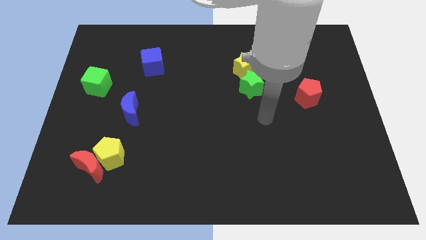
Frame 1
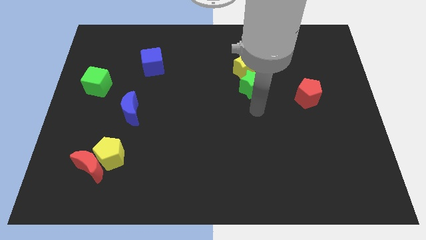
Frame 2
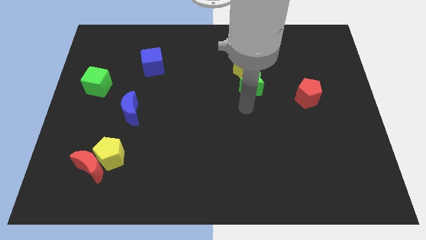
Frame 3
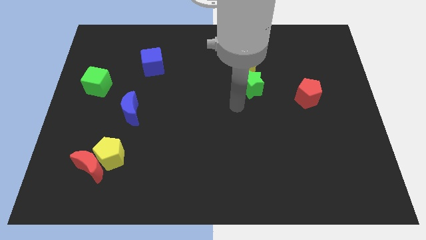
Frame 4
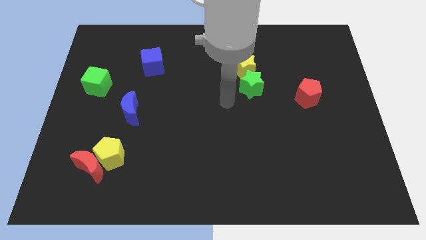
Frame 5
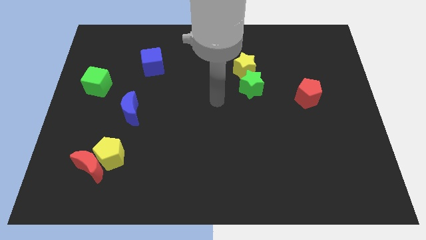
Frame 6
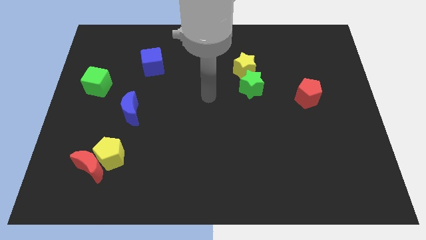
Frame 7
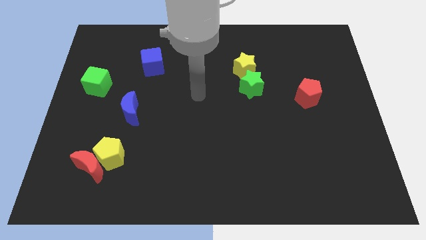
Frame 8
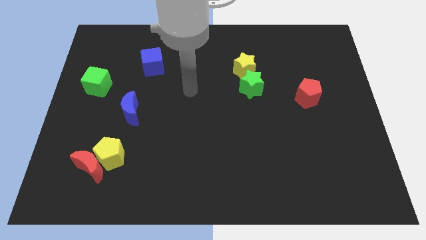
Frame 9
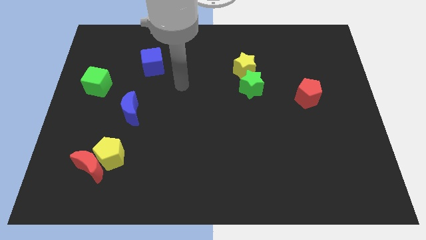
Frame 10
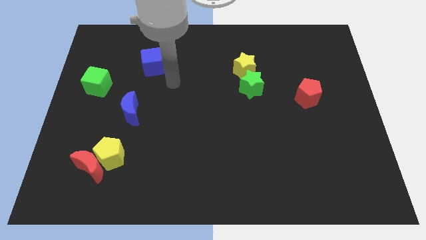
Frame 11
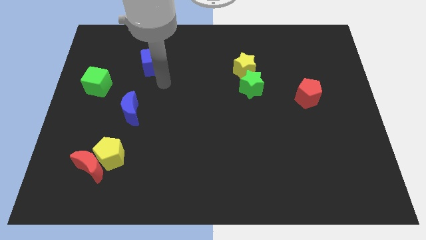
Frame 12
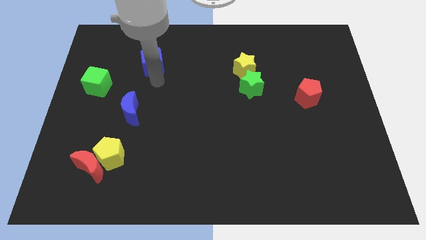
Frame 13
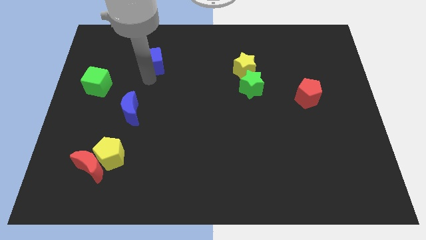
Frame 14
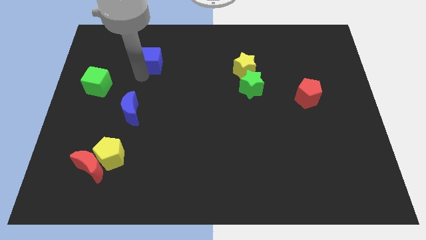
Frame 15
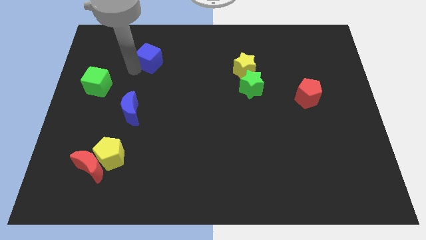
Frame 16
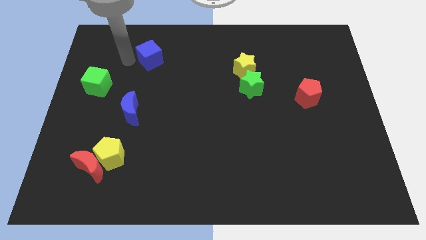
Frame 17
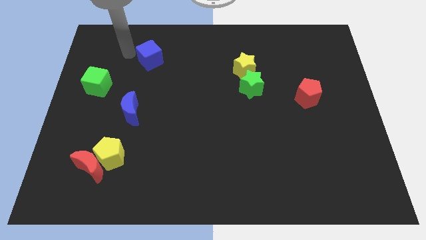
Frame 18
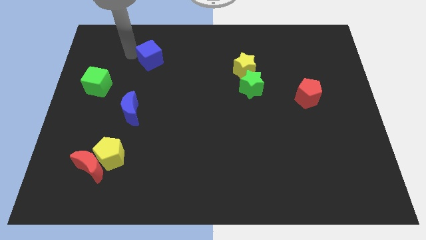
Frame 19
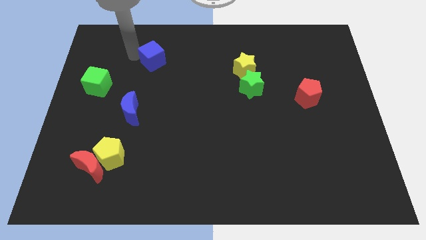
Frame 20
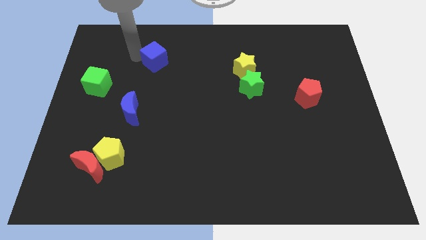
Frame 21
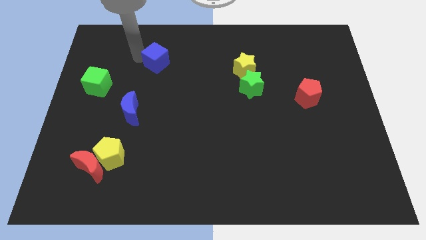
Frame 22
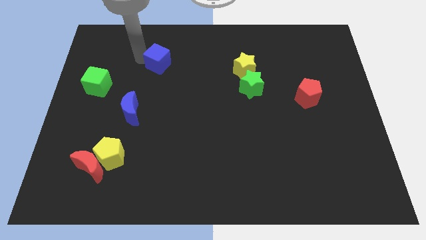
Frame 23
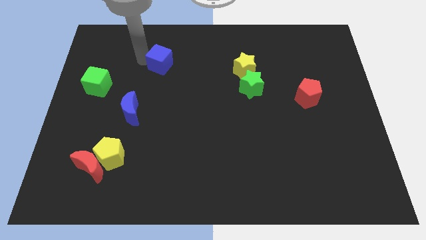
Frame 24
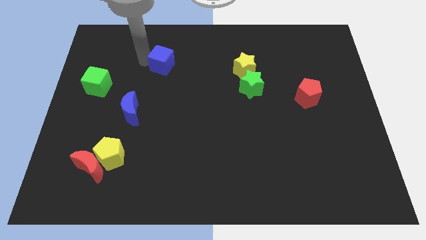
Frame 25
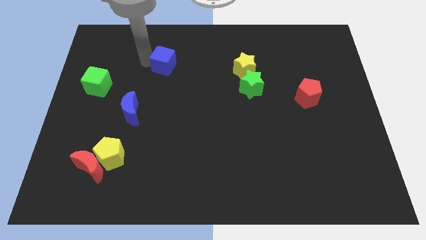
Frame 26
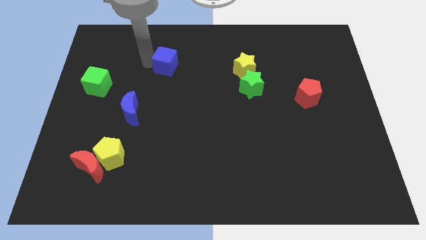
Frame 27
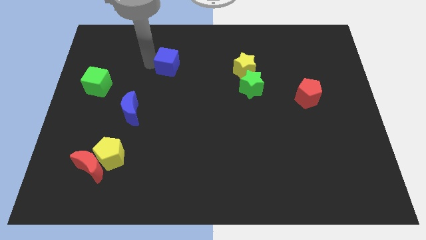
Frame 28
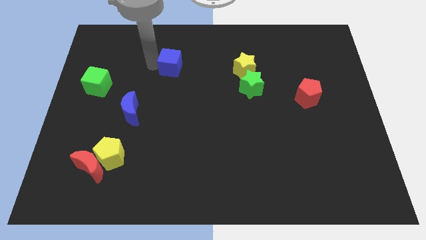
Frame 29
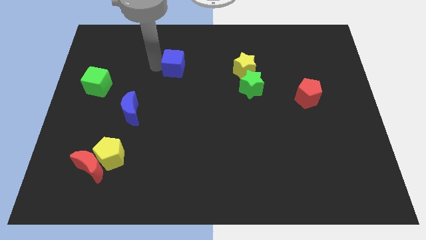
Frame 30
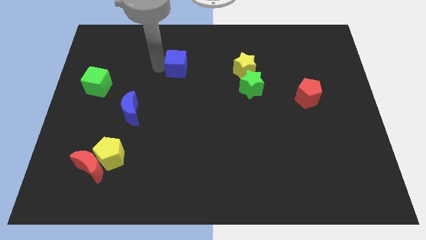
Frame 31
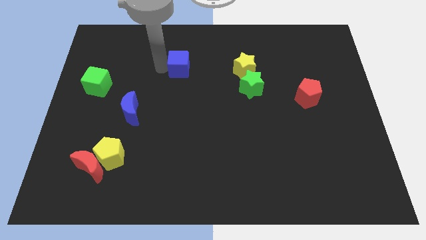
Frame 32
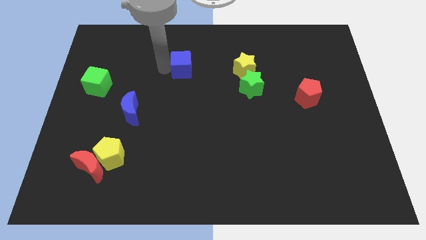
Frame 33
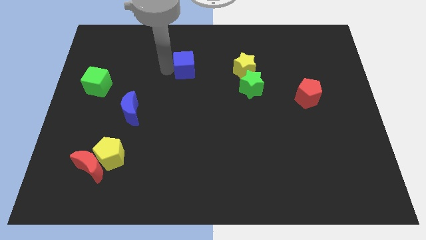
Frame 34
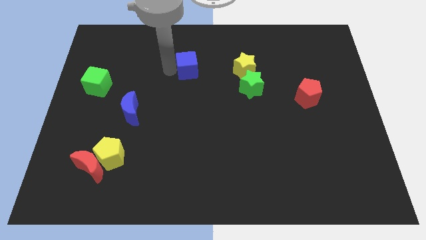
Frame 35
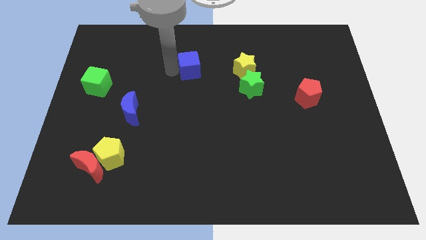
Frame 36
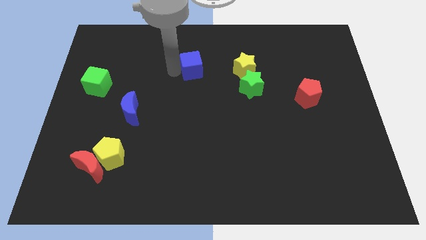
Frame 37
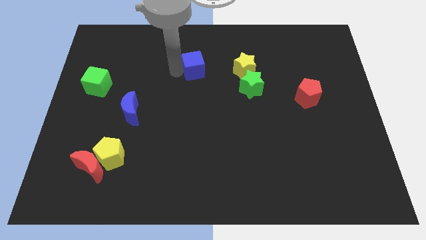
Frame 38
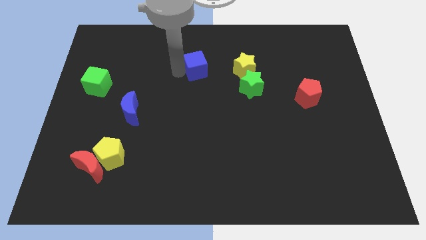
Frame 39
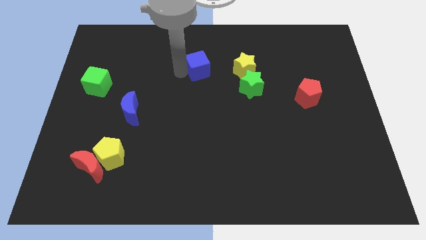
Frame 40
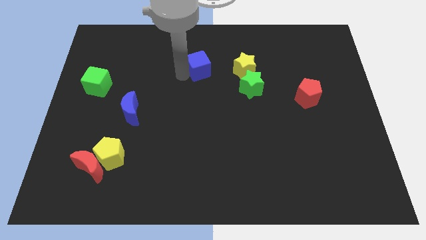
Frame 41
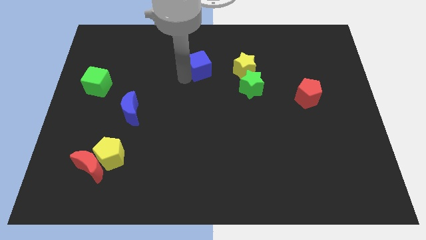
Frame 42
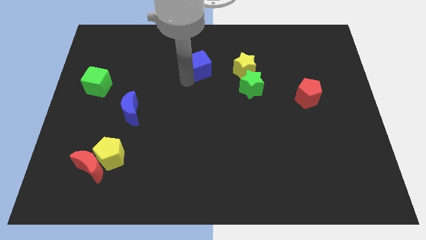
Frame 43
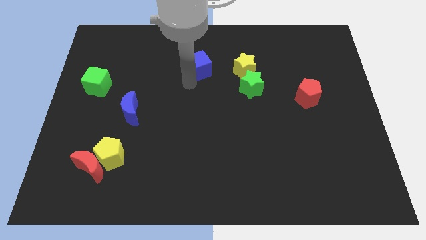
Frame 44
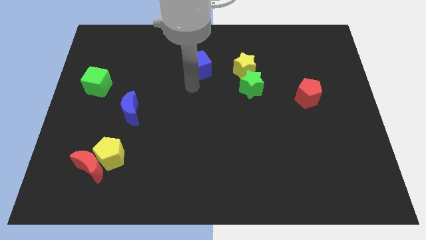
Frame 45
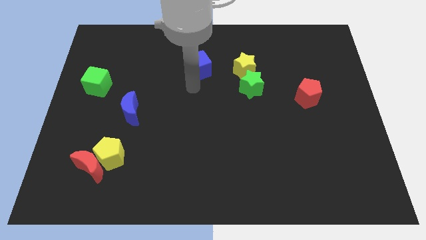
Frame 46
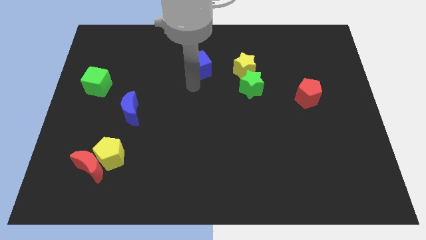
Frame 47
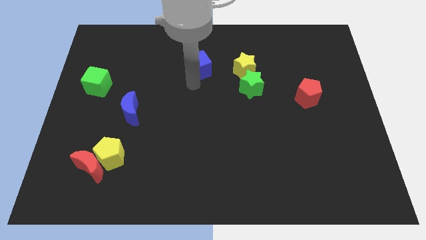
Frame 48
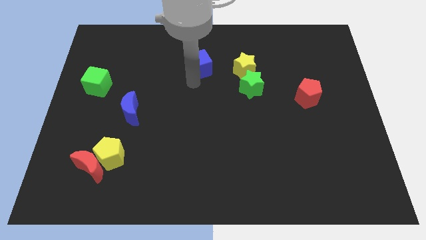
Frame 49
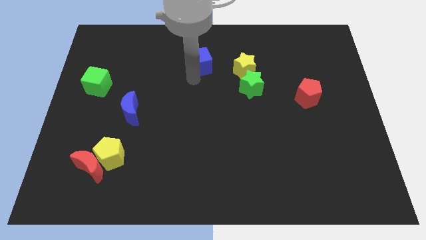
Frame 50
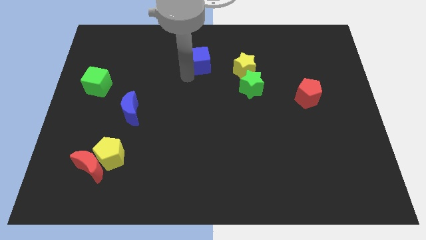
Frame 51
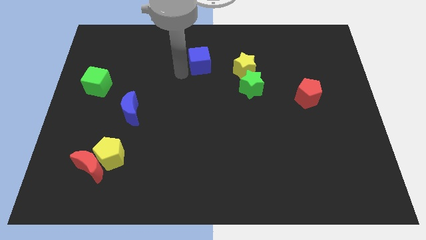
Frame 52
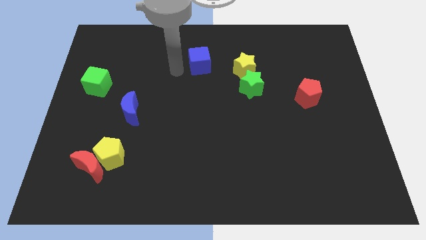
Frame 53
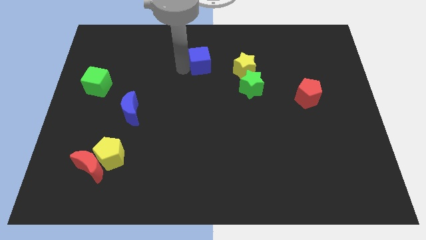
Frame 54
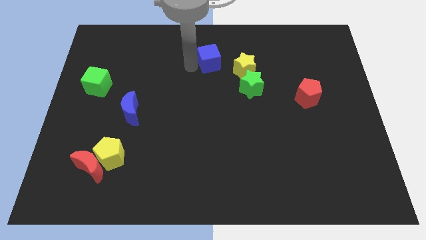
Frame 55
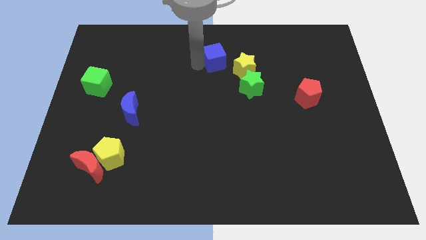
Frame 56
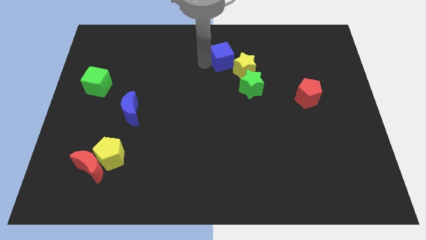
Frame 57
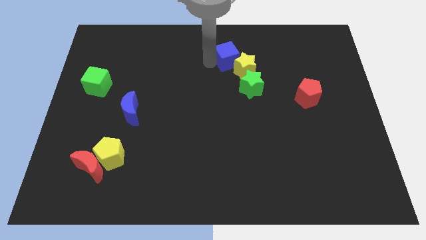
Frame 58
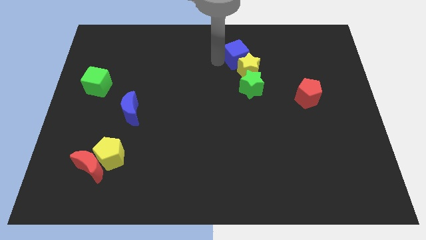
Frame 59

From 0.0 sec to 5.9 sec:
push the blue cube to the right

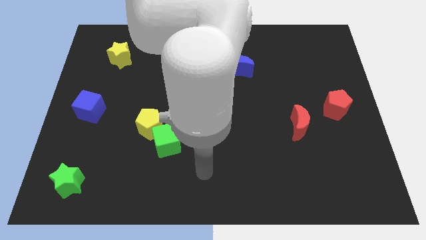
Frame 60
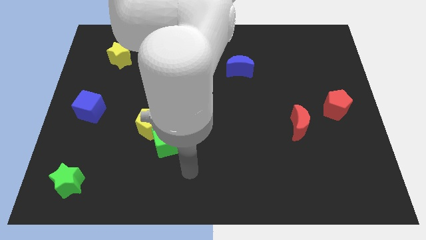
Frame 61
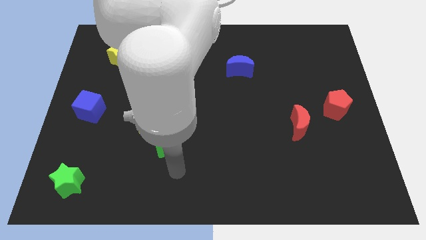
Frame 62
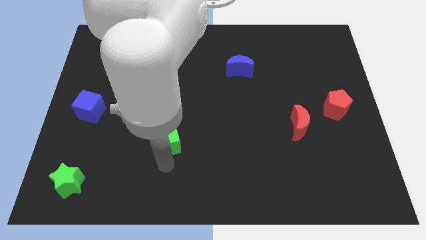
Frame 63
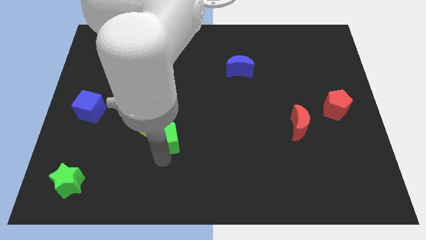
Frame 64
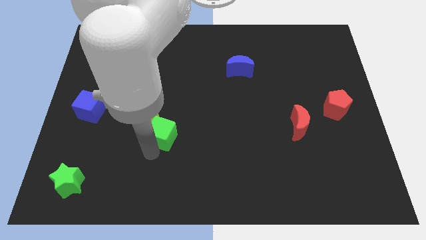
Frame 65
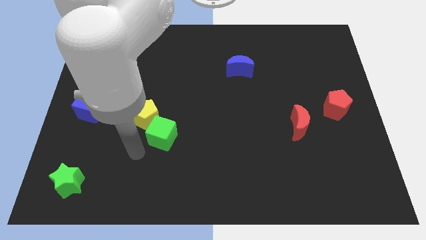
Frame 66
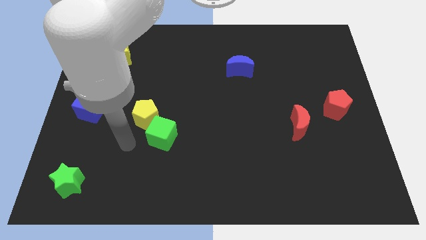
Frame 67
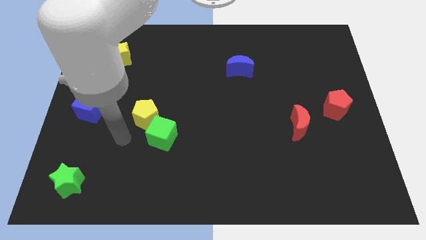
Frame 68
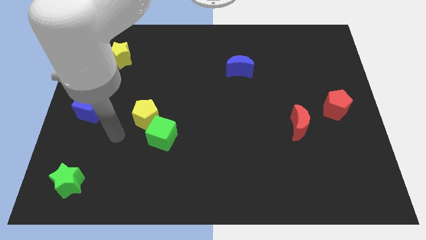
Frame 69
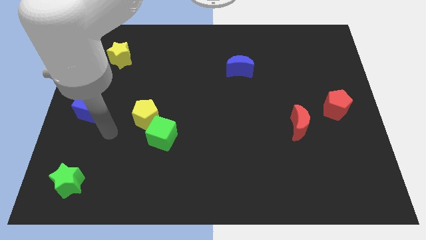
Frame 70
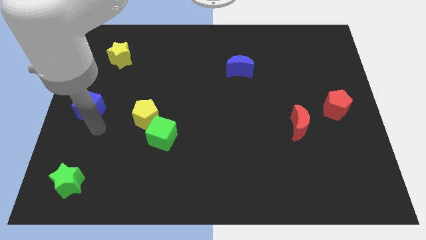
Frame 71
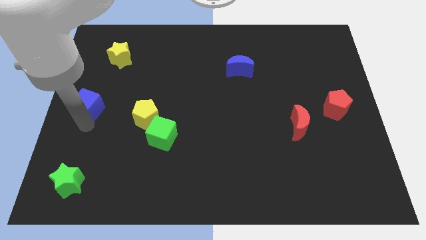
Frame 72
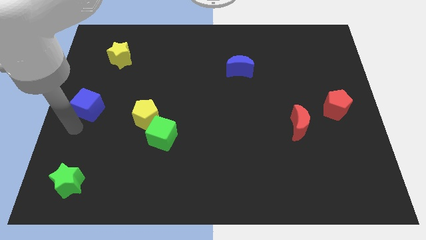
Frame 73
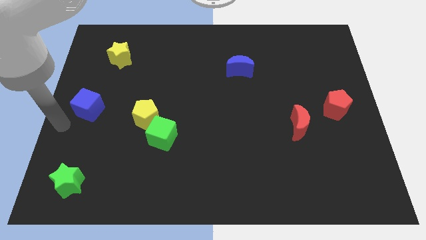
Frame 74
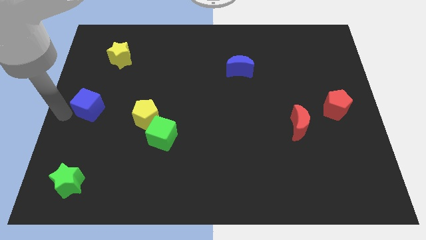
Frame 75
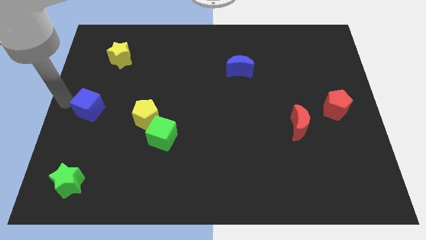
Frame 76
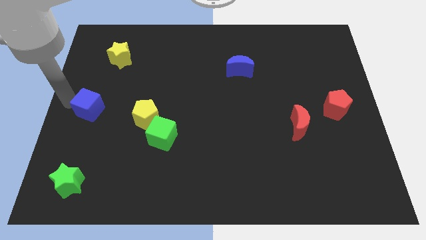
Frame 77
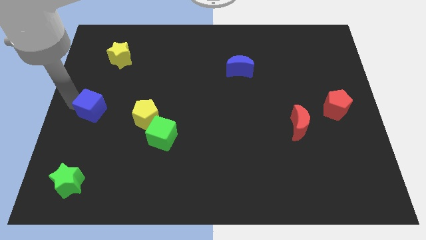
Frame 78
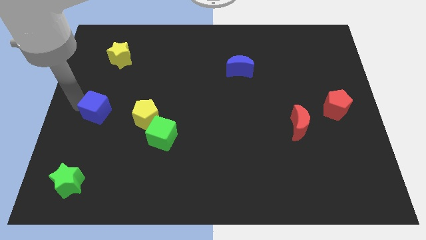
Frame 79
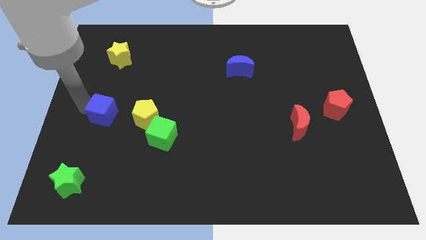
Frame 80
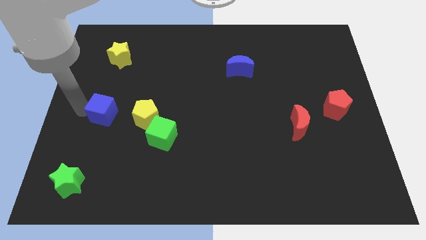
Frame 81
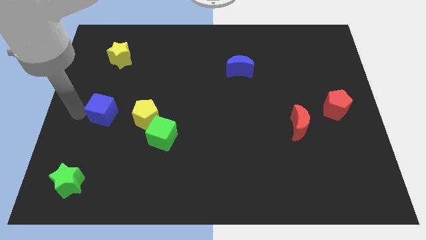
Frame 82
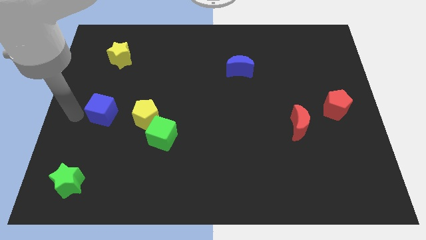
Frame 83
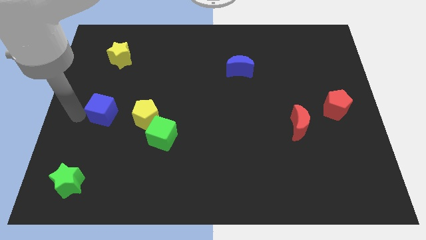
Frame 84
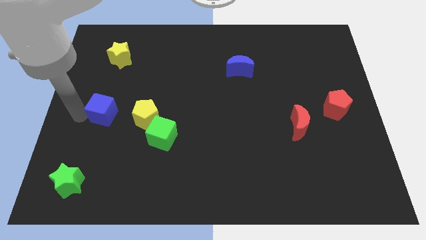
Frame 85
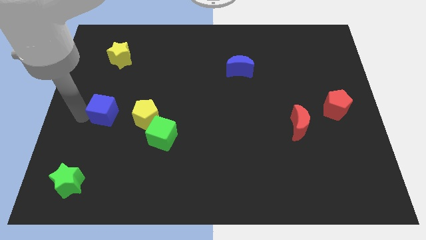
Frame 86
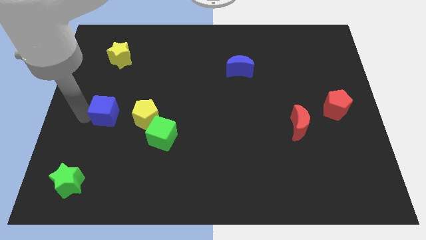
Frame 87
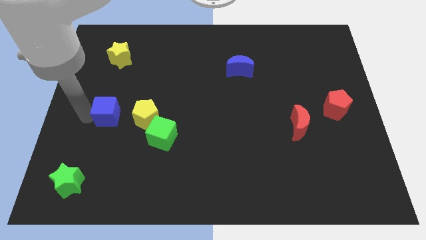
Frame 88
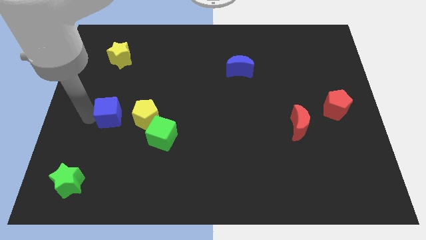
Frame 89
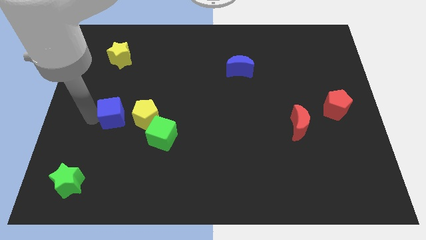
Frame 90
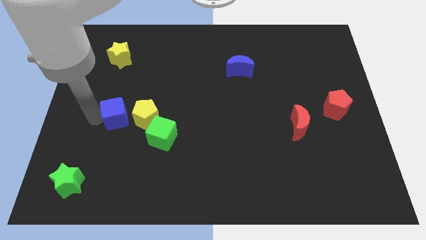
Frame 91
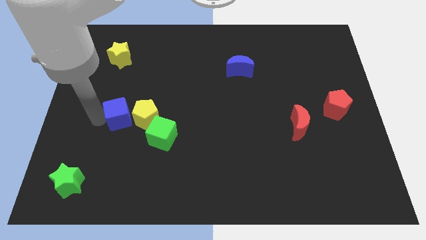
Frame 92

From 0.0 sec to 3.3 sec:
slide the blue cube right a little bit
